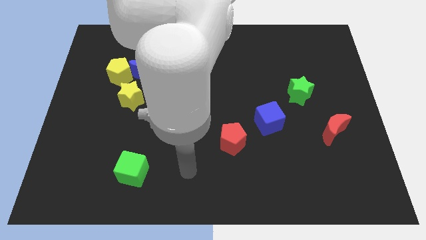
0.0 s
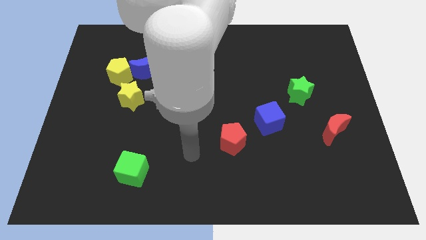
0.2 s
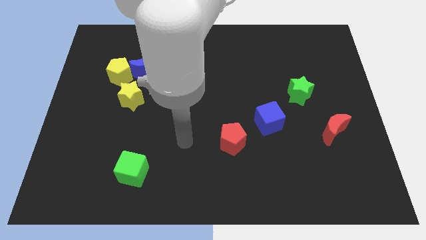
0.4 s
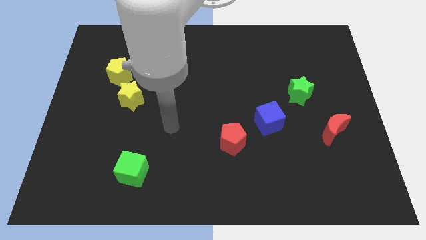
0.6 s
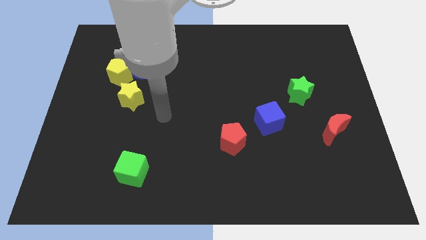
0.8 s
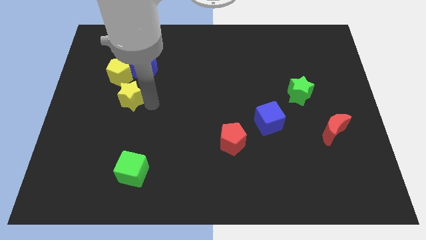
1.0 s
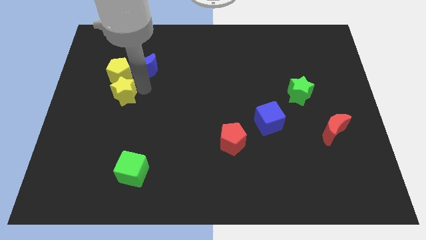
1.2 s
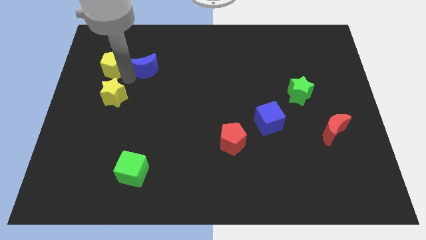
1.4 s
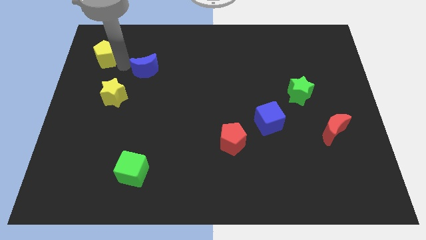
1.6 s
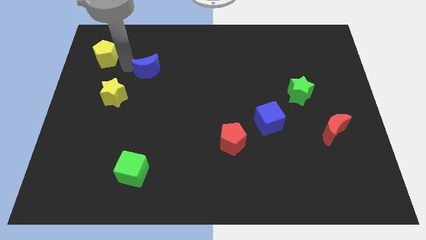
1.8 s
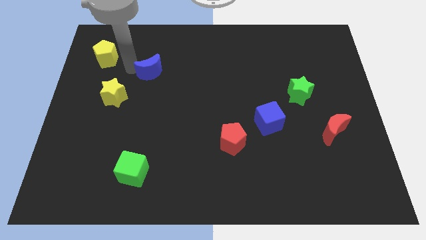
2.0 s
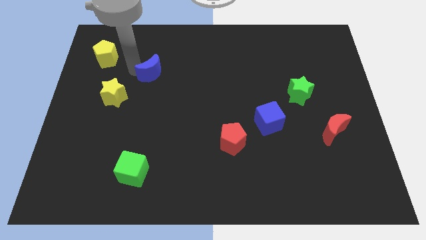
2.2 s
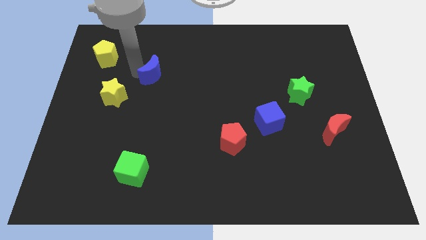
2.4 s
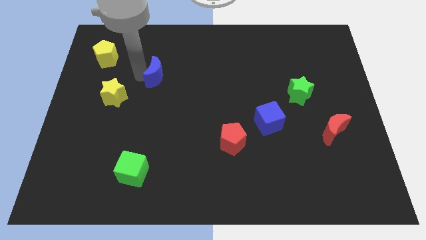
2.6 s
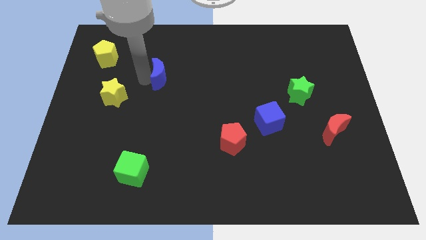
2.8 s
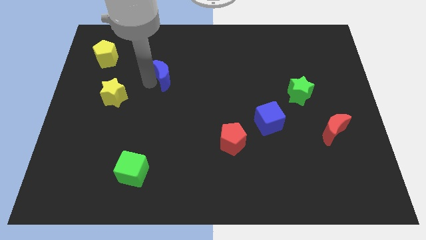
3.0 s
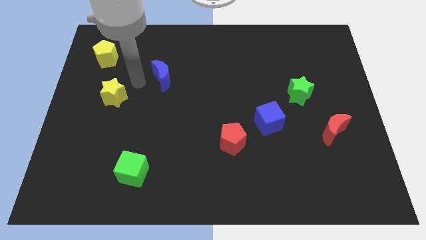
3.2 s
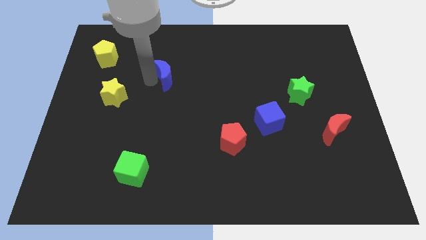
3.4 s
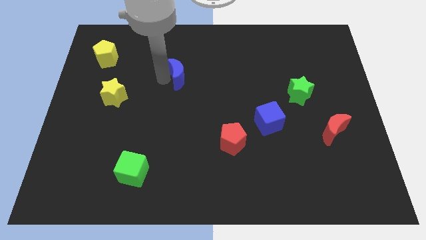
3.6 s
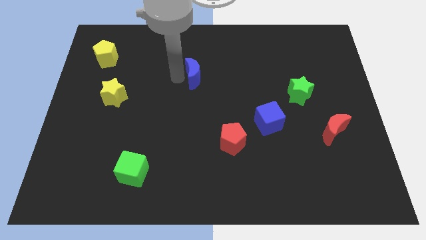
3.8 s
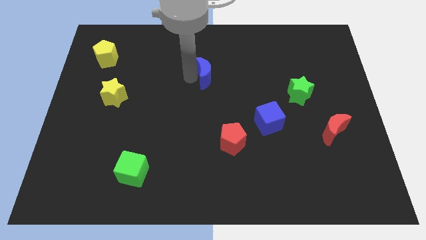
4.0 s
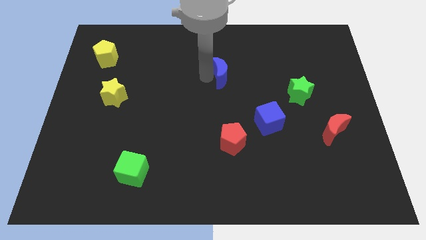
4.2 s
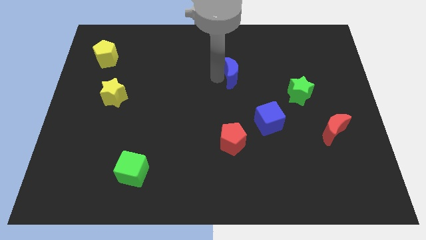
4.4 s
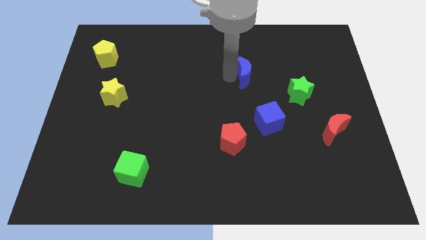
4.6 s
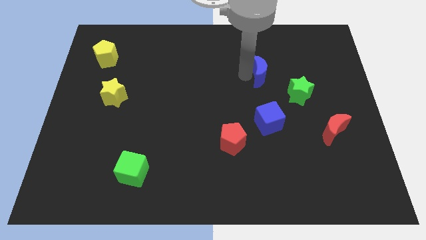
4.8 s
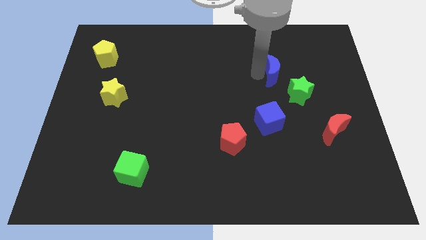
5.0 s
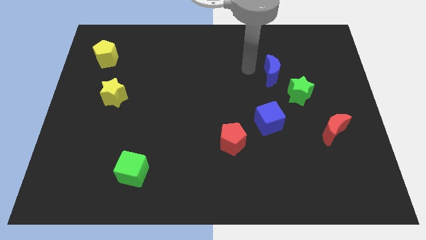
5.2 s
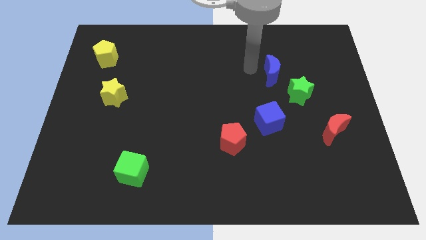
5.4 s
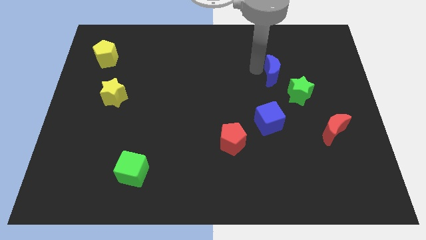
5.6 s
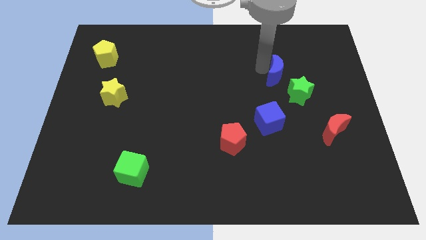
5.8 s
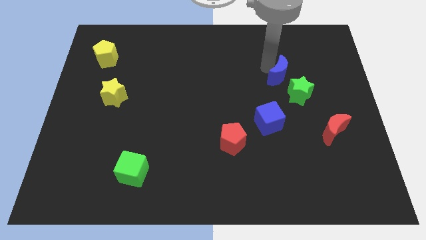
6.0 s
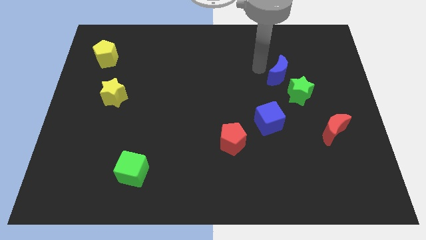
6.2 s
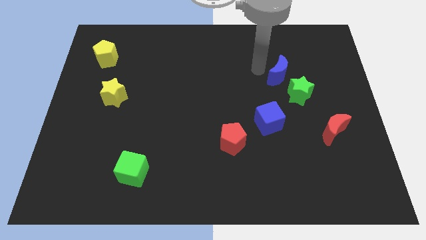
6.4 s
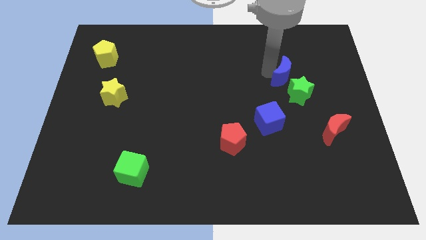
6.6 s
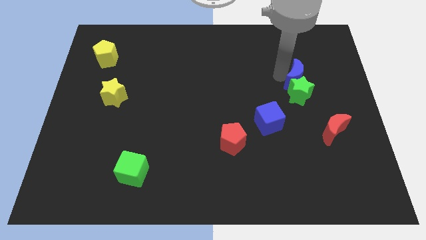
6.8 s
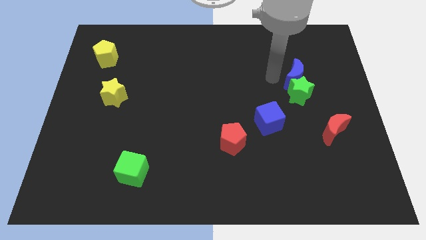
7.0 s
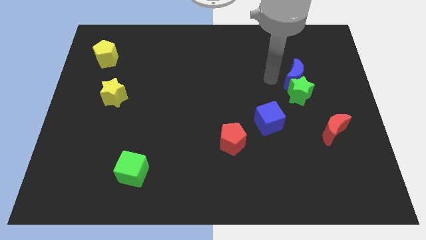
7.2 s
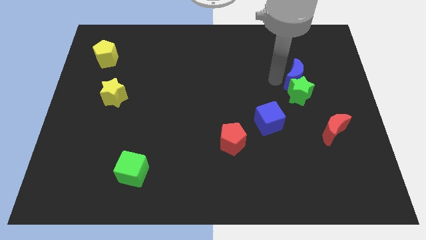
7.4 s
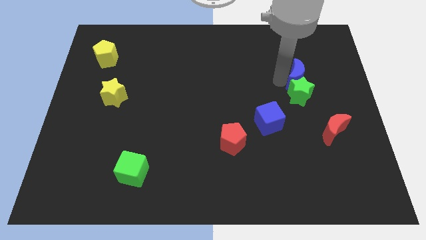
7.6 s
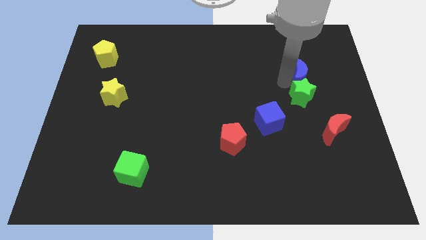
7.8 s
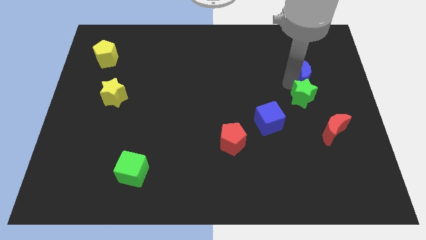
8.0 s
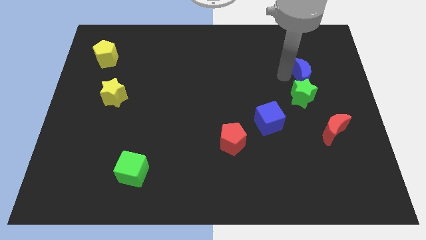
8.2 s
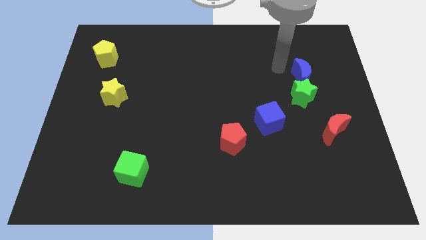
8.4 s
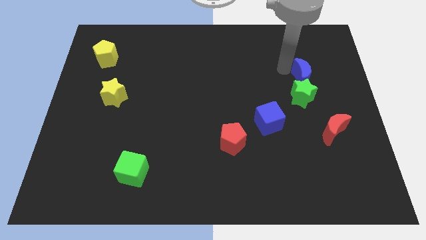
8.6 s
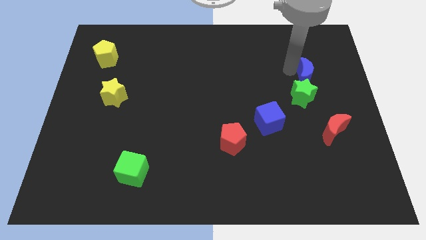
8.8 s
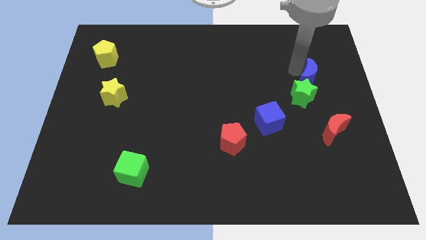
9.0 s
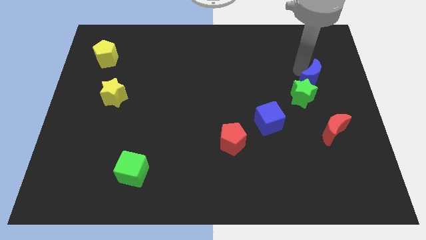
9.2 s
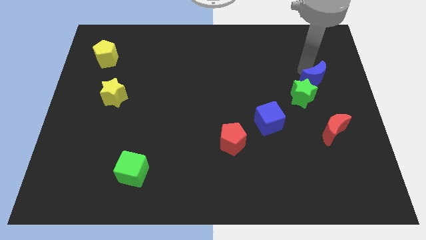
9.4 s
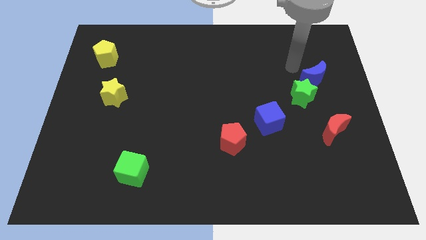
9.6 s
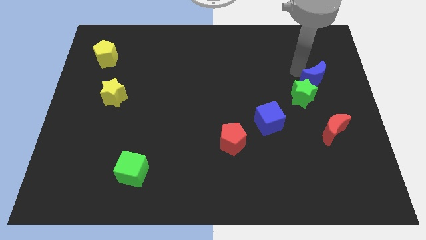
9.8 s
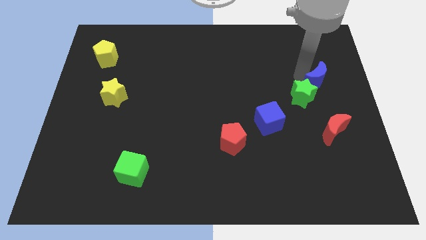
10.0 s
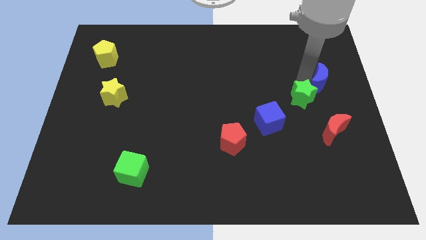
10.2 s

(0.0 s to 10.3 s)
push the blue moon to the right side

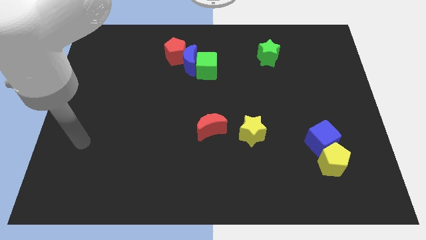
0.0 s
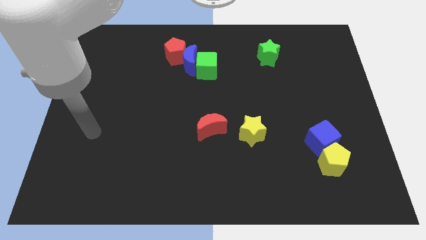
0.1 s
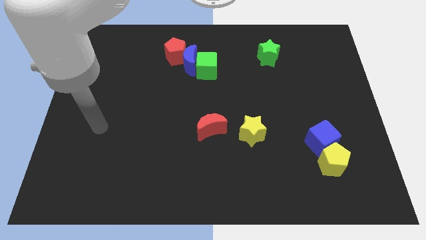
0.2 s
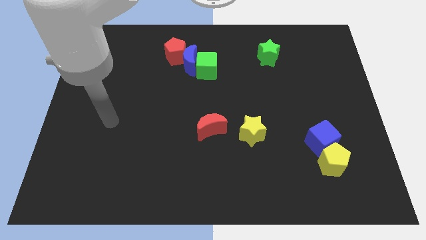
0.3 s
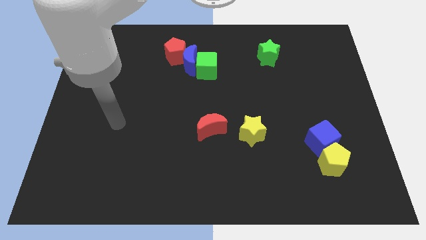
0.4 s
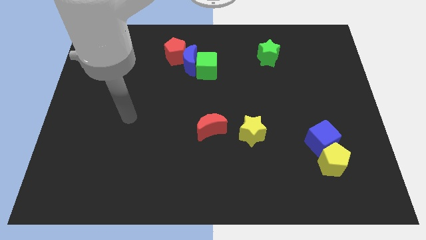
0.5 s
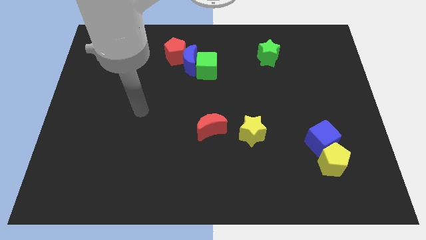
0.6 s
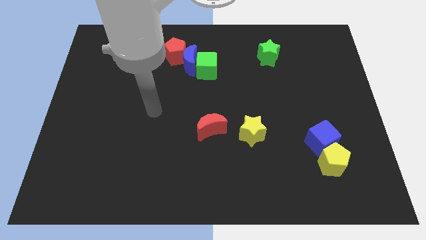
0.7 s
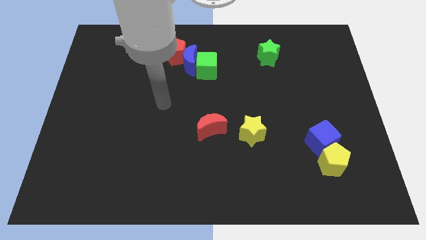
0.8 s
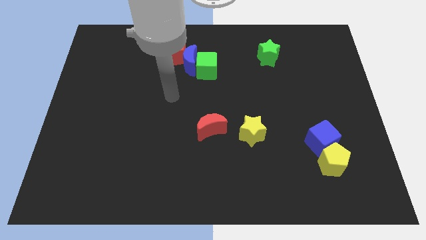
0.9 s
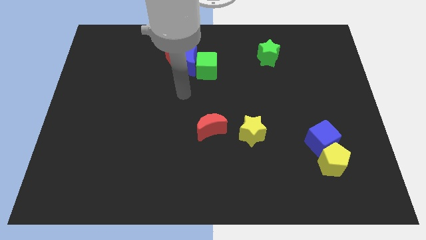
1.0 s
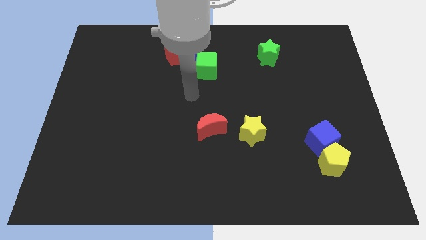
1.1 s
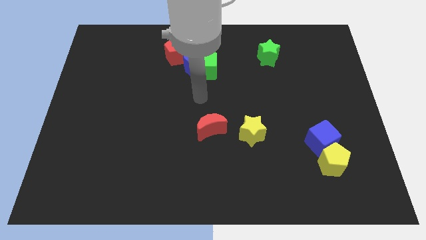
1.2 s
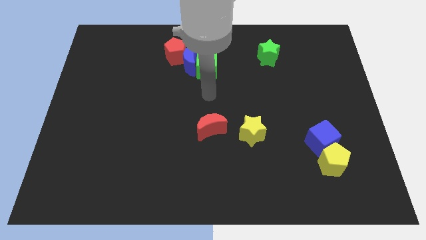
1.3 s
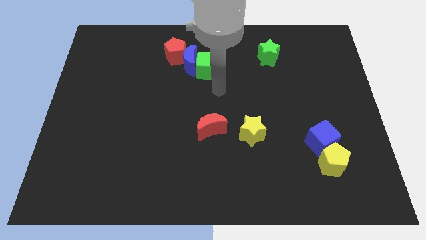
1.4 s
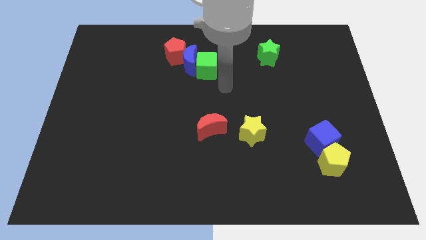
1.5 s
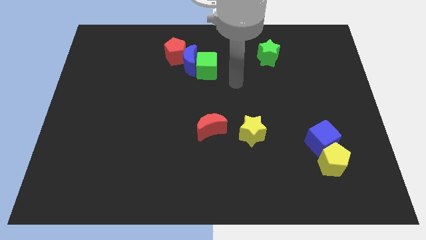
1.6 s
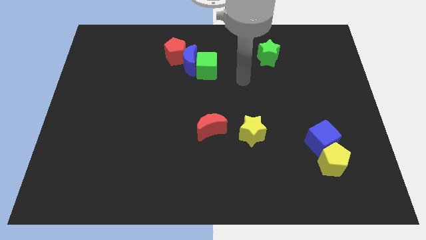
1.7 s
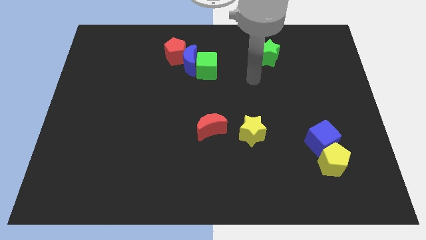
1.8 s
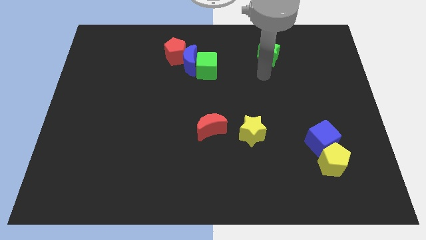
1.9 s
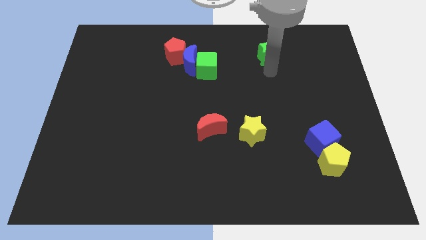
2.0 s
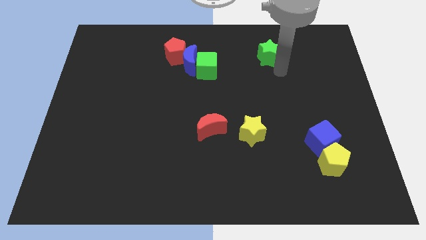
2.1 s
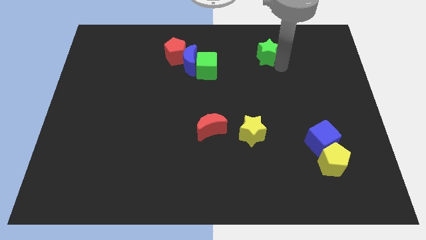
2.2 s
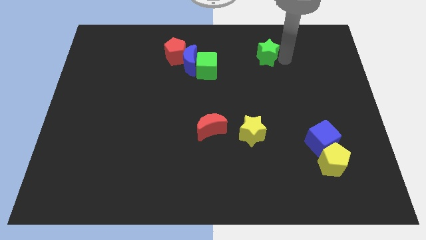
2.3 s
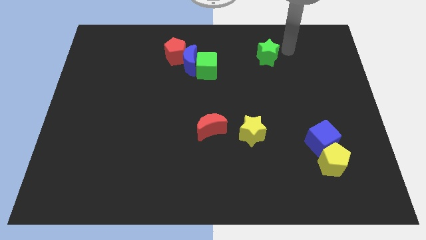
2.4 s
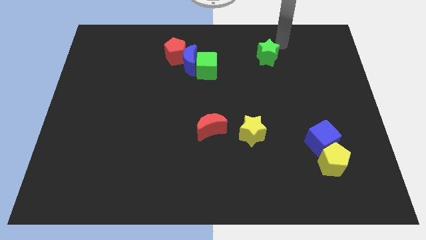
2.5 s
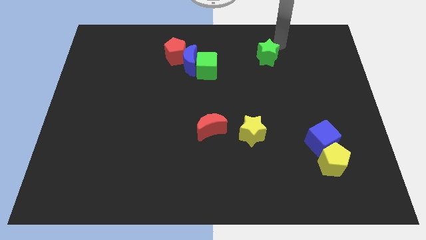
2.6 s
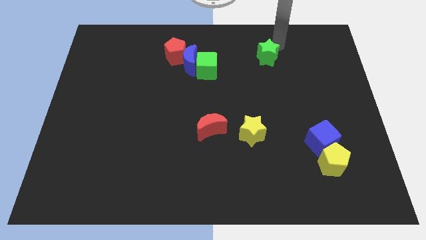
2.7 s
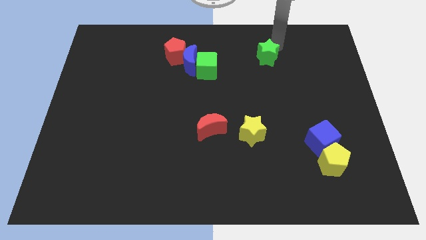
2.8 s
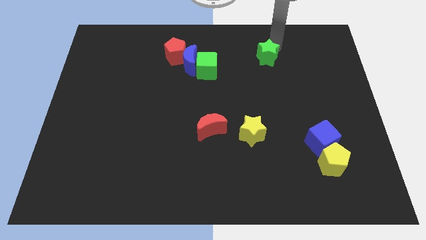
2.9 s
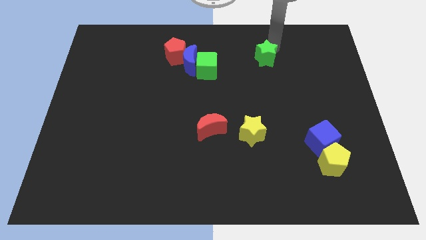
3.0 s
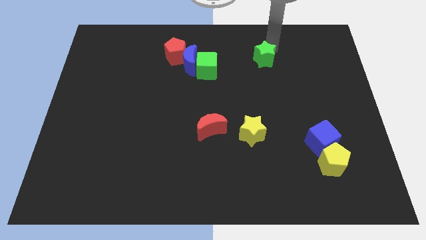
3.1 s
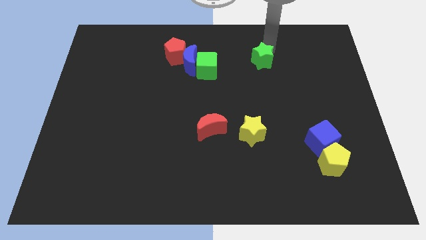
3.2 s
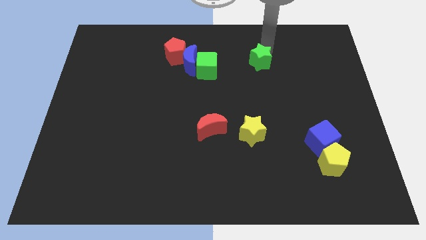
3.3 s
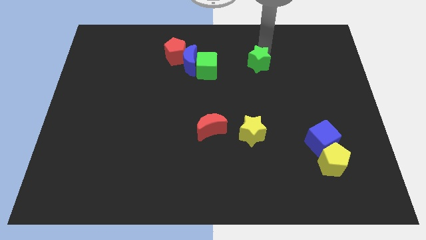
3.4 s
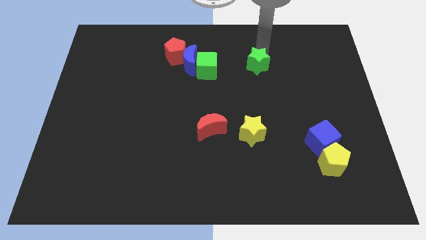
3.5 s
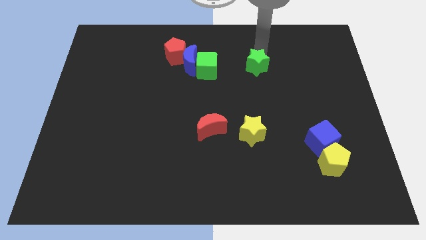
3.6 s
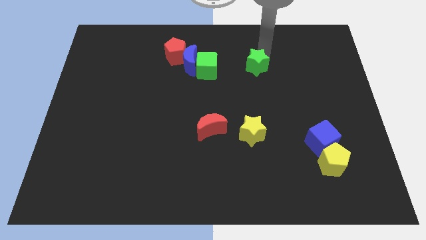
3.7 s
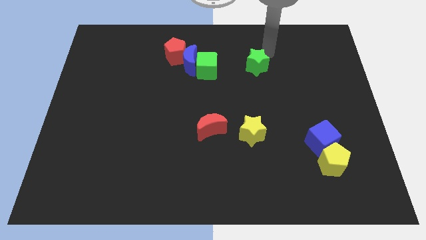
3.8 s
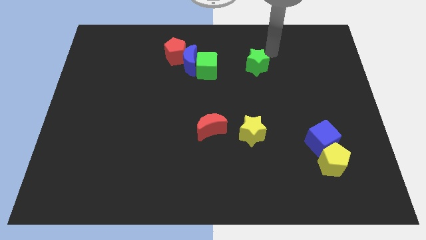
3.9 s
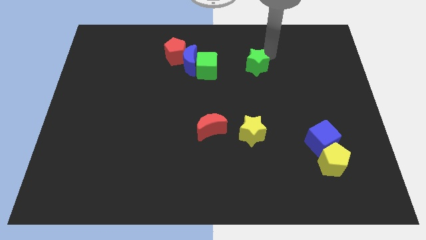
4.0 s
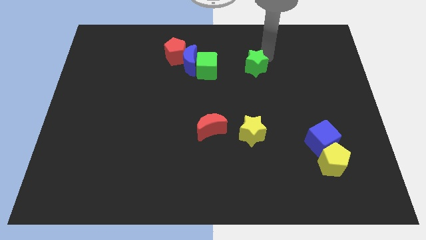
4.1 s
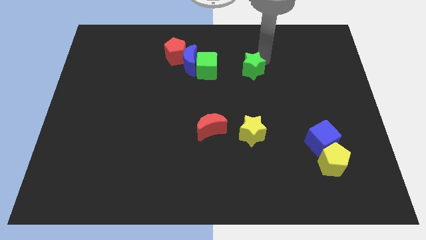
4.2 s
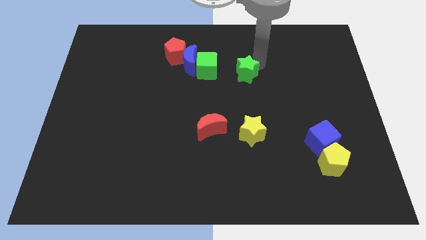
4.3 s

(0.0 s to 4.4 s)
put the green star to the middle
